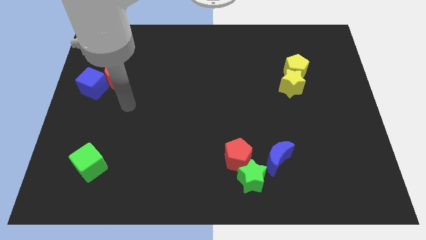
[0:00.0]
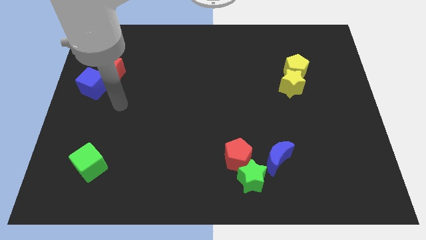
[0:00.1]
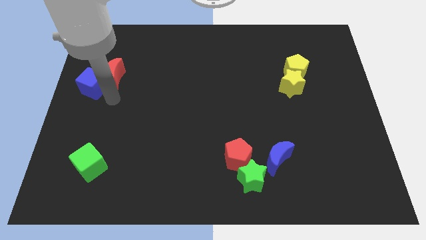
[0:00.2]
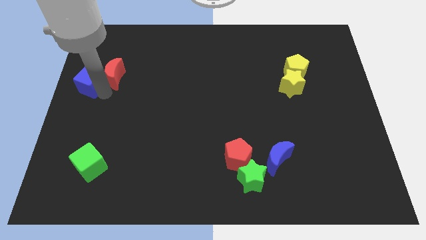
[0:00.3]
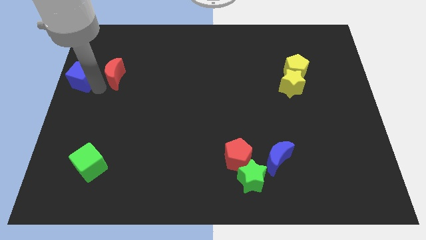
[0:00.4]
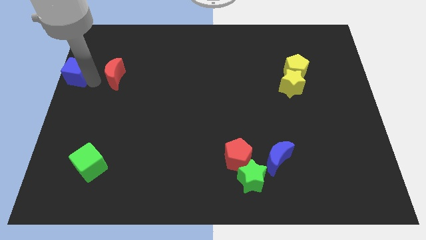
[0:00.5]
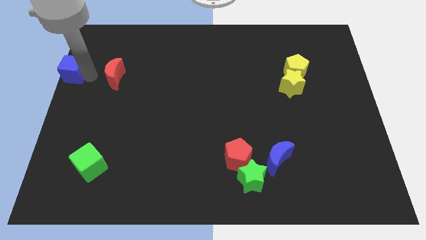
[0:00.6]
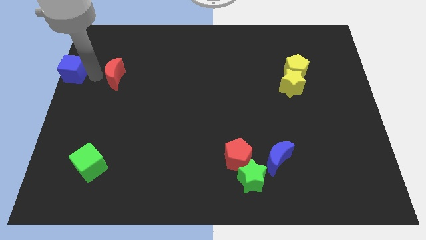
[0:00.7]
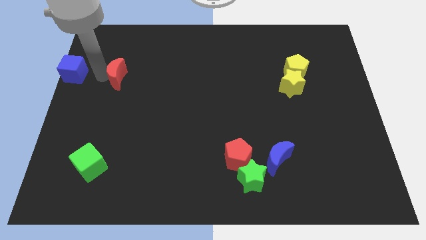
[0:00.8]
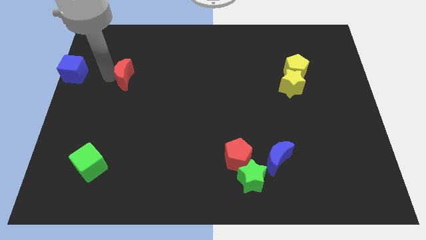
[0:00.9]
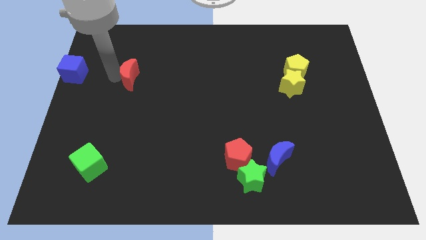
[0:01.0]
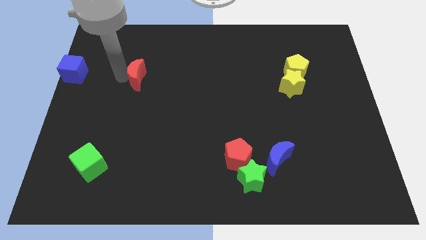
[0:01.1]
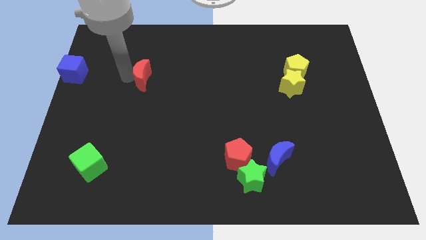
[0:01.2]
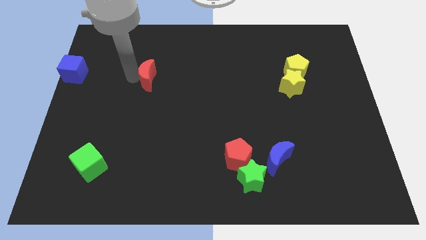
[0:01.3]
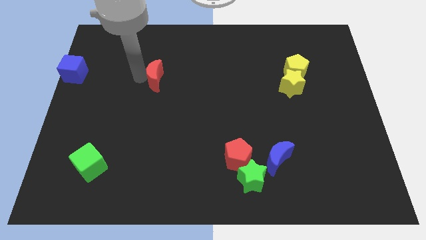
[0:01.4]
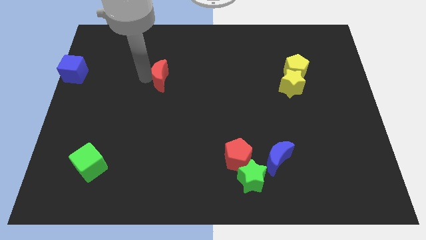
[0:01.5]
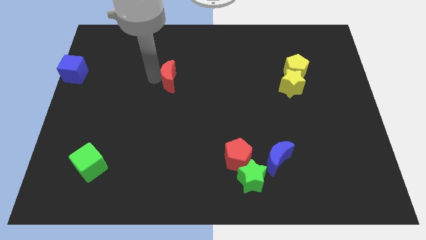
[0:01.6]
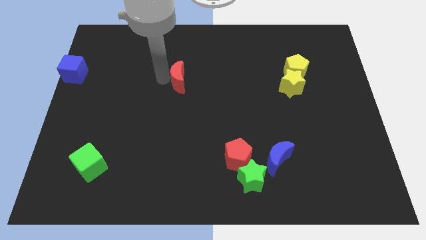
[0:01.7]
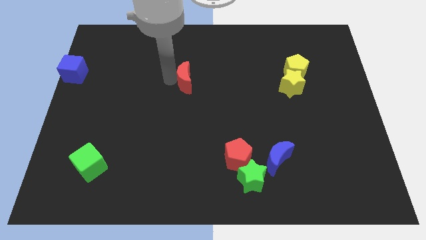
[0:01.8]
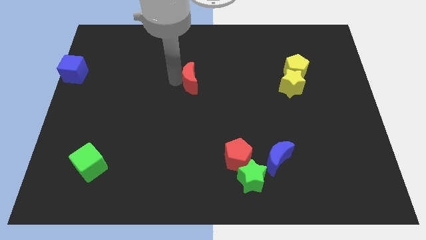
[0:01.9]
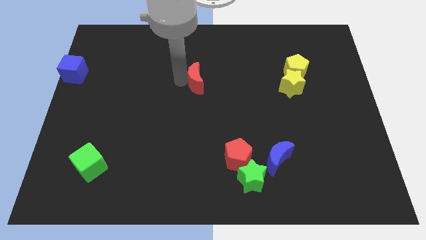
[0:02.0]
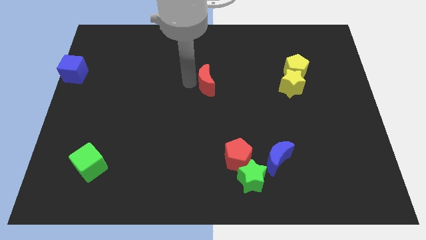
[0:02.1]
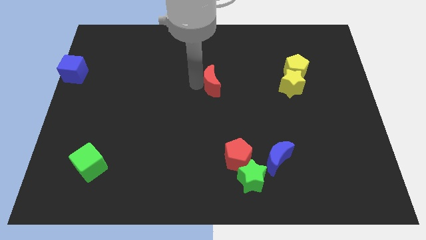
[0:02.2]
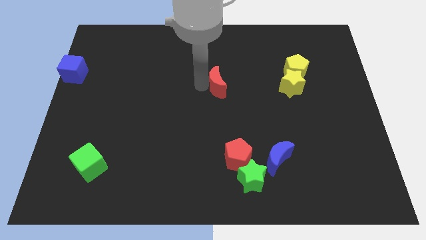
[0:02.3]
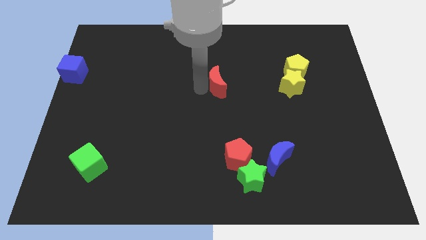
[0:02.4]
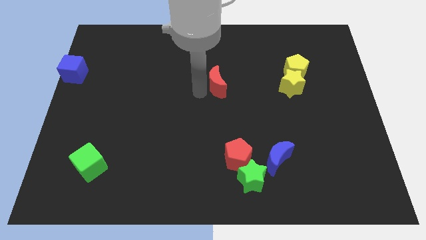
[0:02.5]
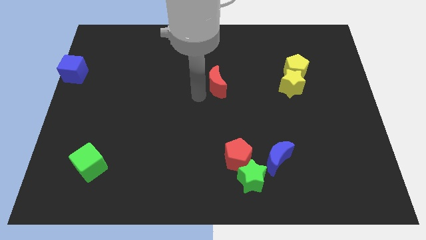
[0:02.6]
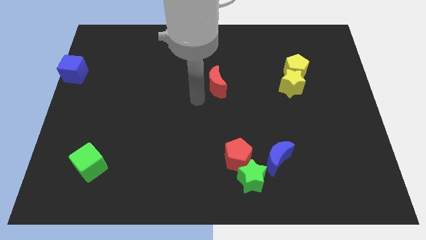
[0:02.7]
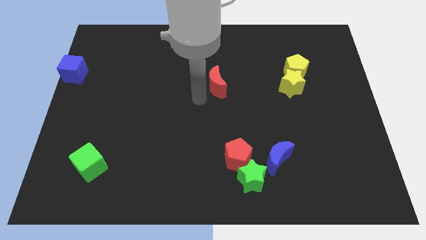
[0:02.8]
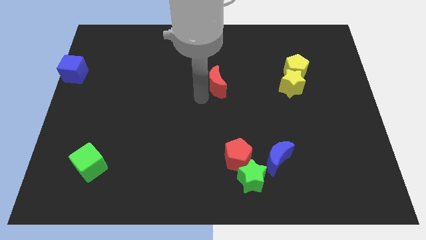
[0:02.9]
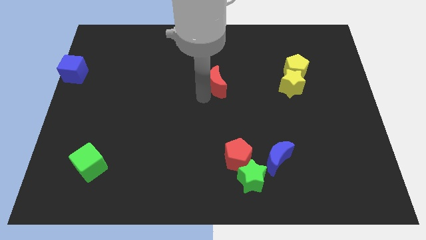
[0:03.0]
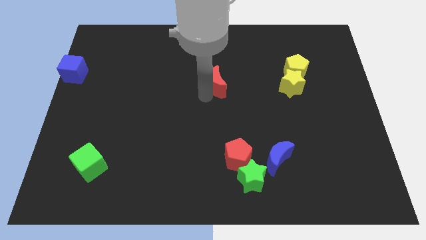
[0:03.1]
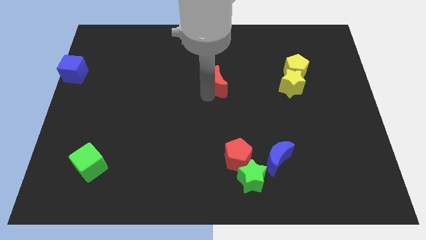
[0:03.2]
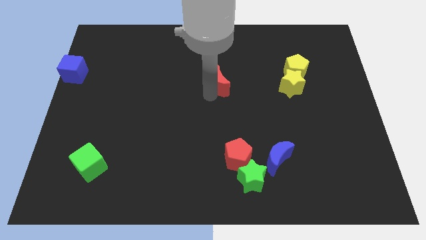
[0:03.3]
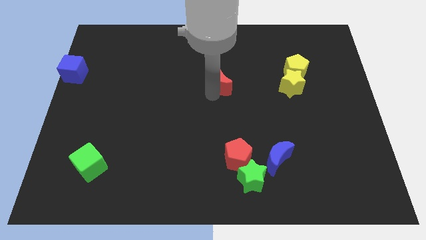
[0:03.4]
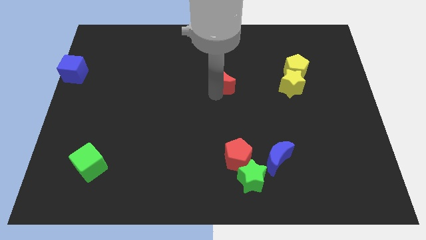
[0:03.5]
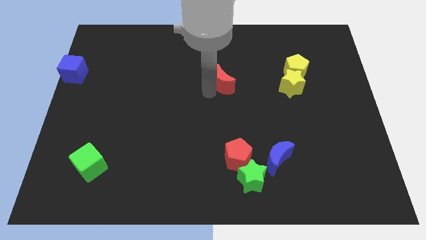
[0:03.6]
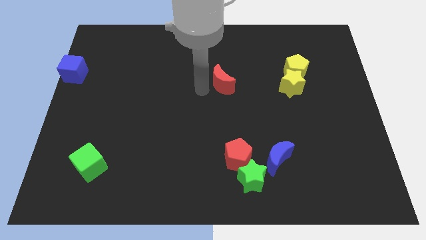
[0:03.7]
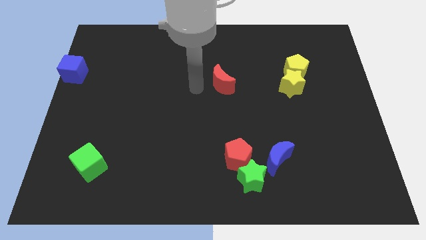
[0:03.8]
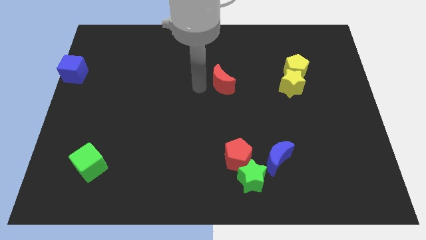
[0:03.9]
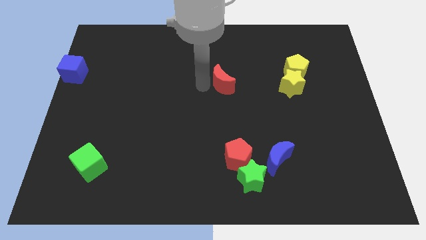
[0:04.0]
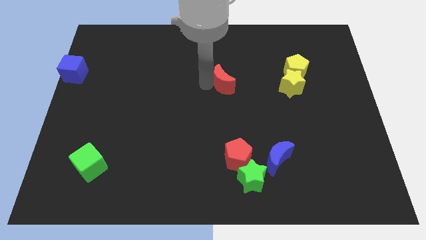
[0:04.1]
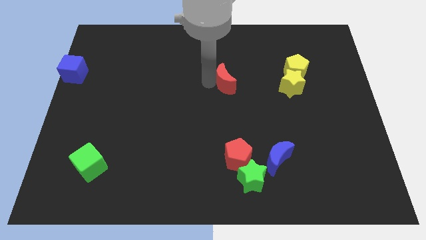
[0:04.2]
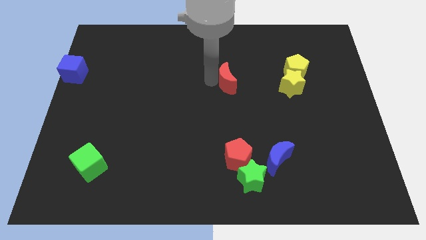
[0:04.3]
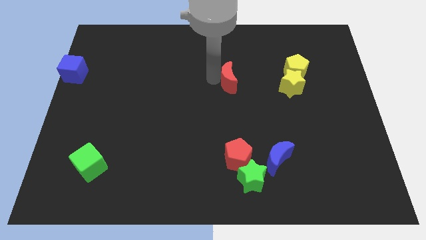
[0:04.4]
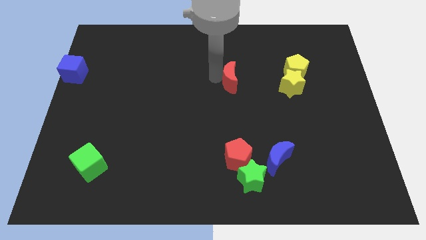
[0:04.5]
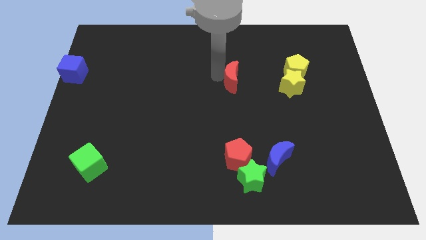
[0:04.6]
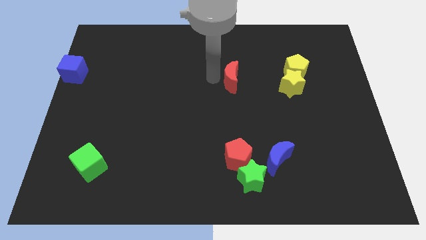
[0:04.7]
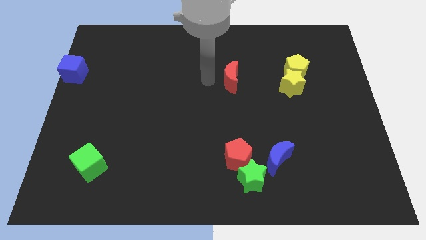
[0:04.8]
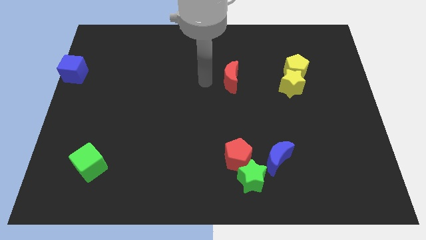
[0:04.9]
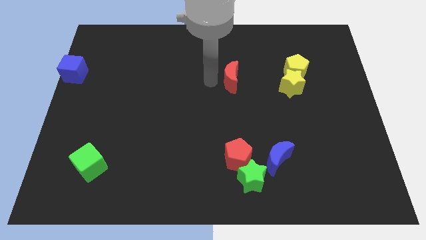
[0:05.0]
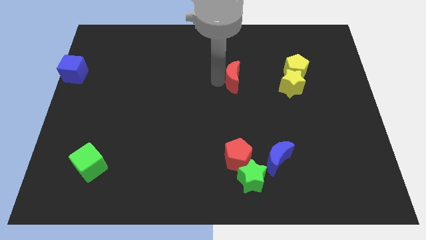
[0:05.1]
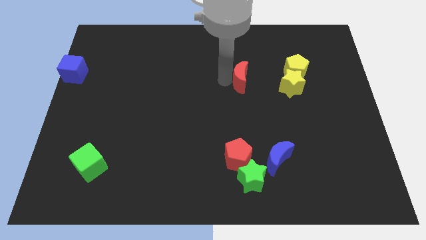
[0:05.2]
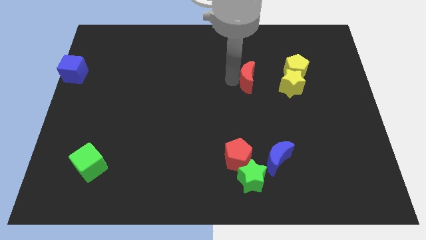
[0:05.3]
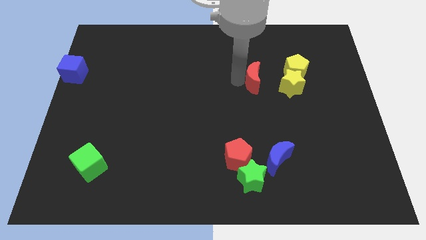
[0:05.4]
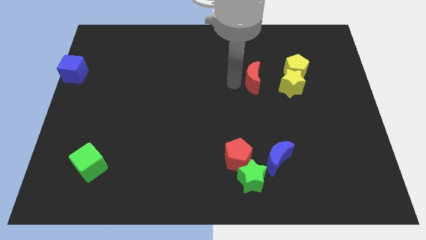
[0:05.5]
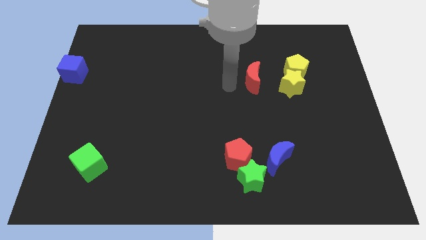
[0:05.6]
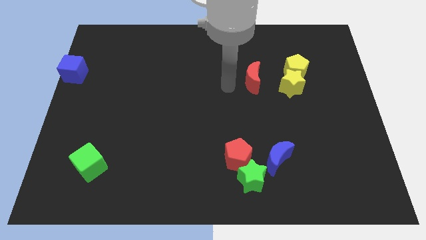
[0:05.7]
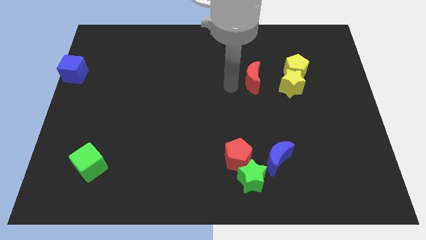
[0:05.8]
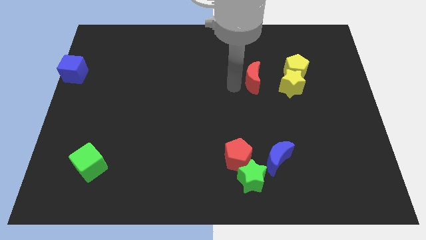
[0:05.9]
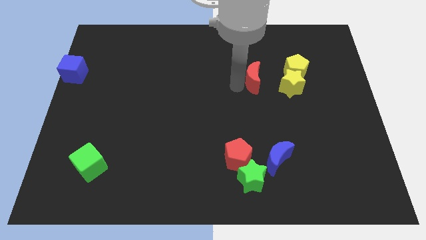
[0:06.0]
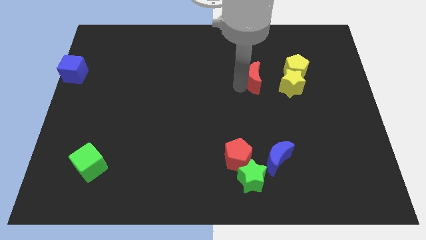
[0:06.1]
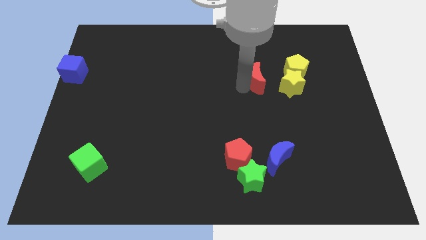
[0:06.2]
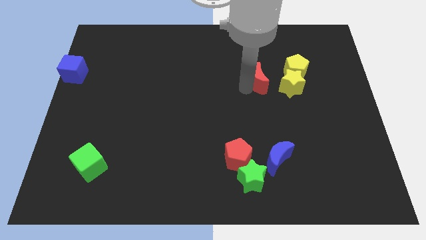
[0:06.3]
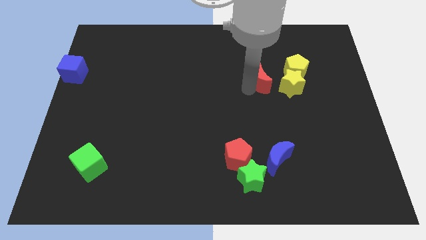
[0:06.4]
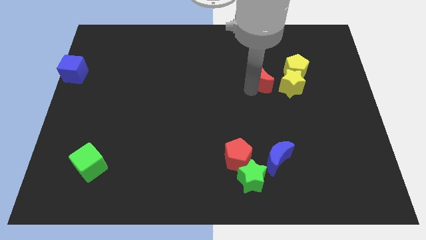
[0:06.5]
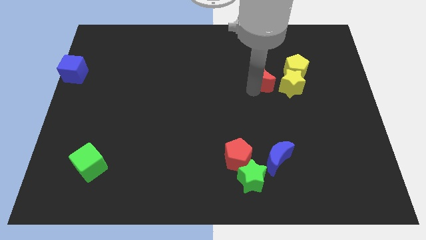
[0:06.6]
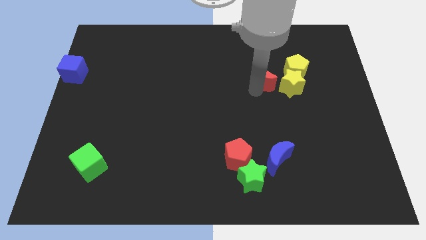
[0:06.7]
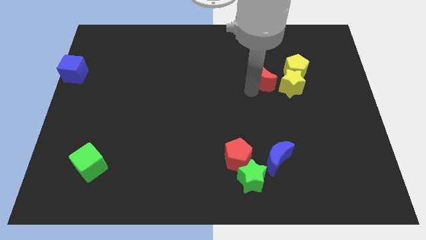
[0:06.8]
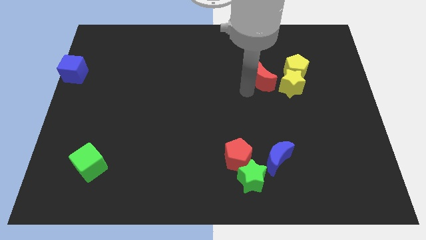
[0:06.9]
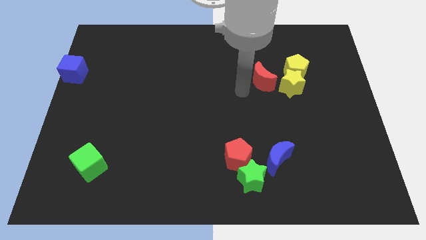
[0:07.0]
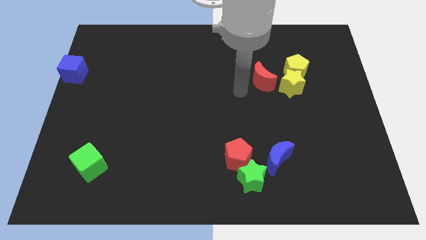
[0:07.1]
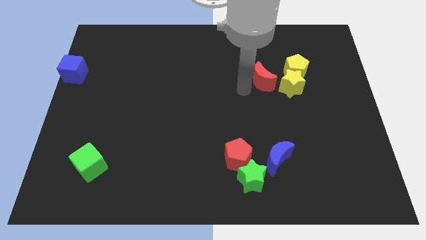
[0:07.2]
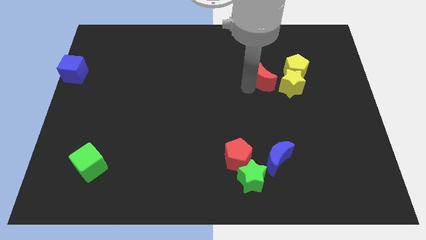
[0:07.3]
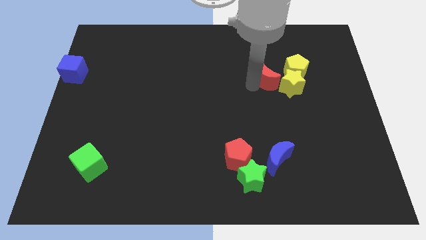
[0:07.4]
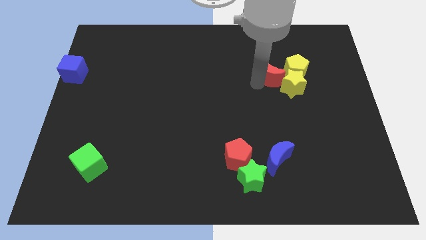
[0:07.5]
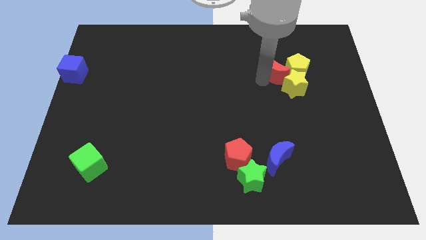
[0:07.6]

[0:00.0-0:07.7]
slide the red moon towards the yellow pentagon
